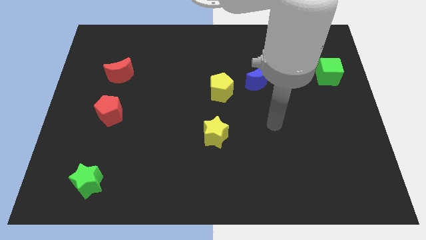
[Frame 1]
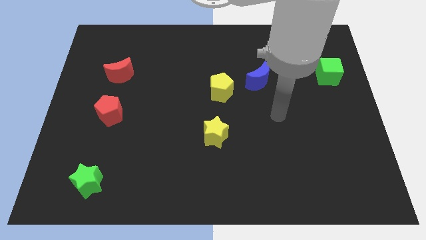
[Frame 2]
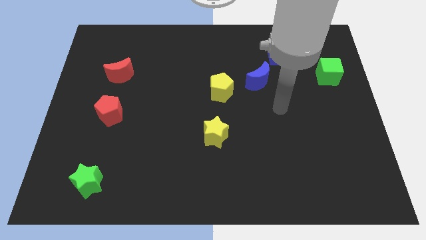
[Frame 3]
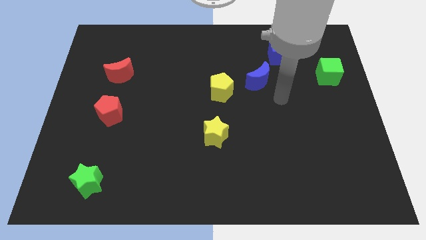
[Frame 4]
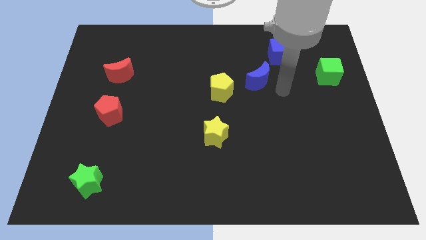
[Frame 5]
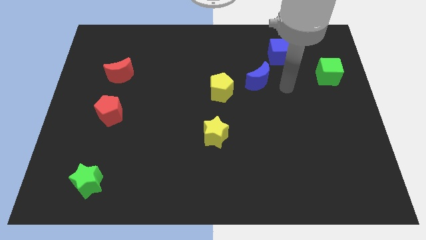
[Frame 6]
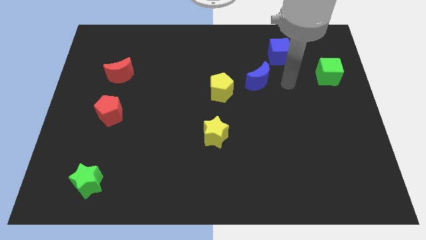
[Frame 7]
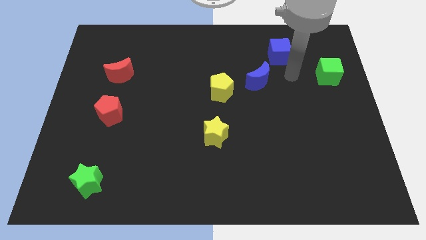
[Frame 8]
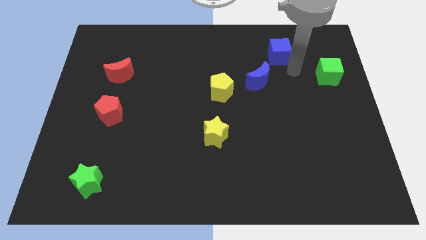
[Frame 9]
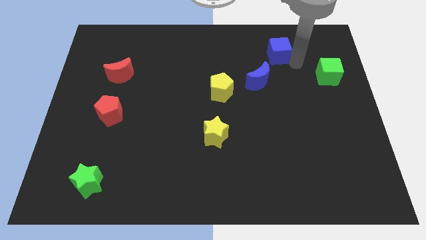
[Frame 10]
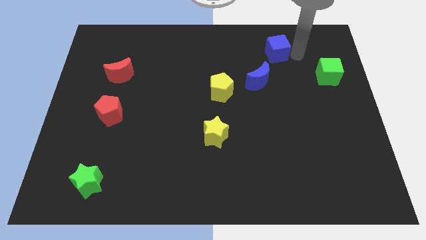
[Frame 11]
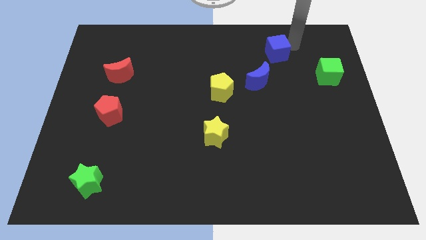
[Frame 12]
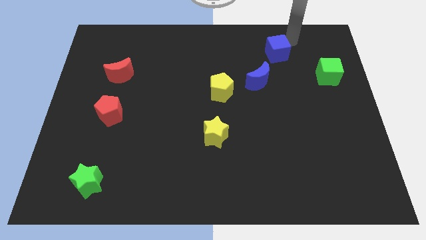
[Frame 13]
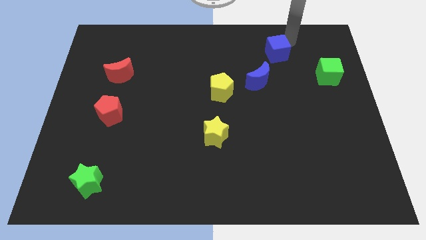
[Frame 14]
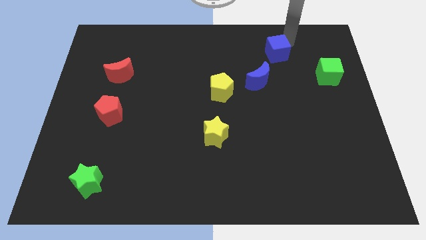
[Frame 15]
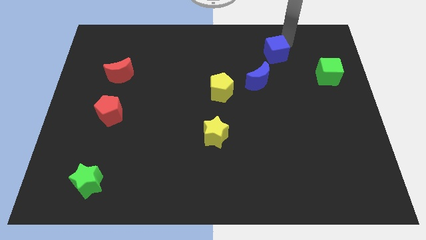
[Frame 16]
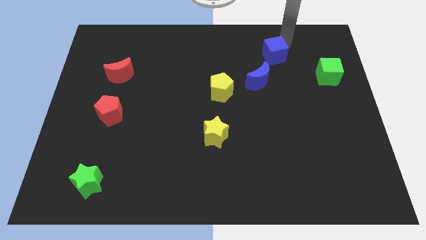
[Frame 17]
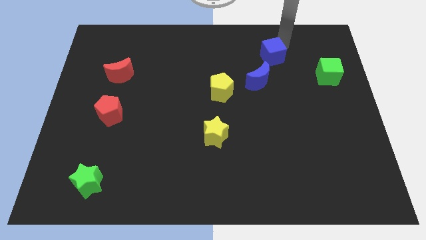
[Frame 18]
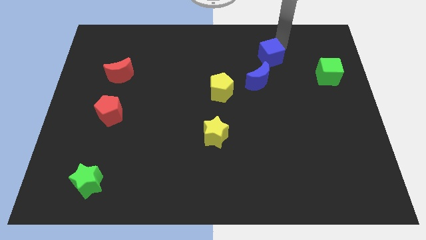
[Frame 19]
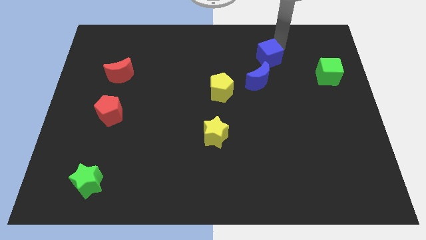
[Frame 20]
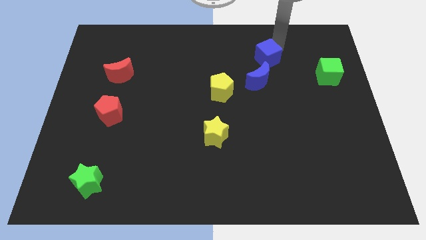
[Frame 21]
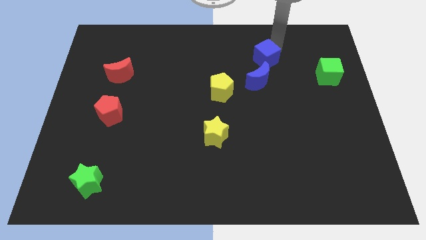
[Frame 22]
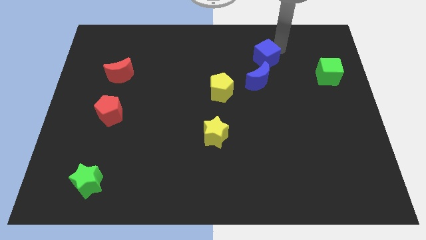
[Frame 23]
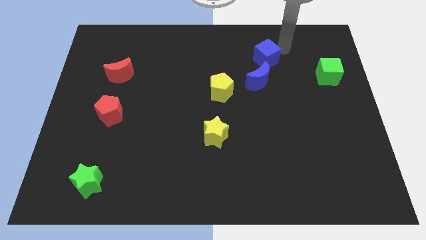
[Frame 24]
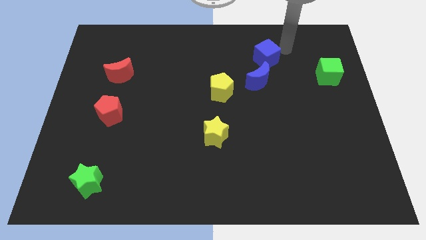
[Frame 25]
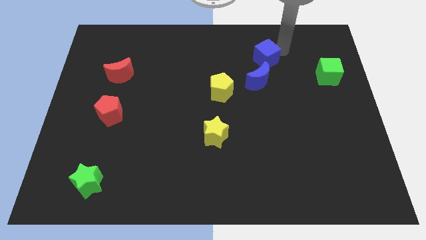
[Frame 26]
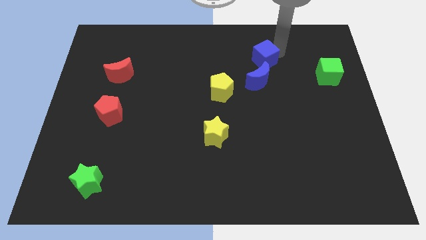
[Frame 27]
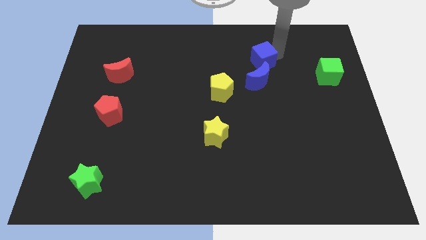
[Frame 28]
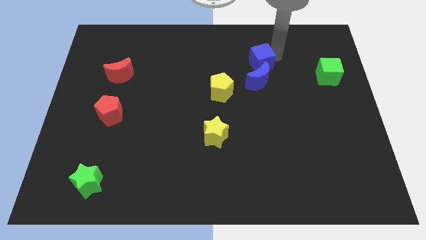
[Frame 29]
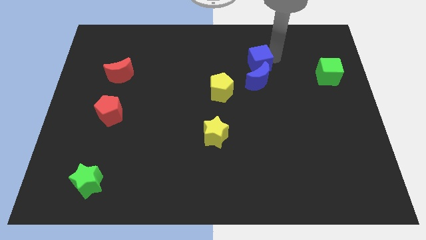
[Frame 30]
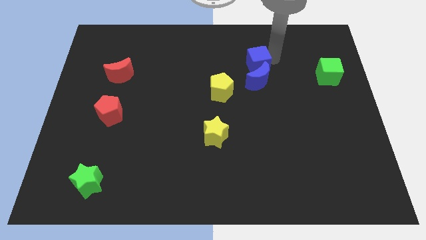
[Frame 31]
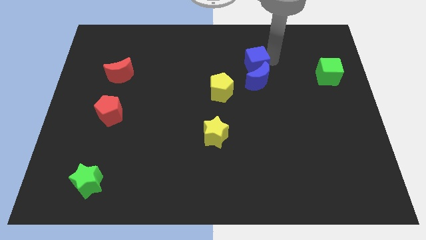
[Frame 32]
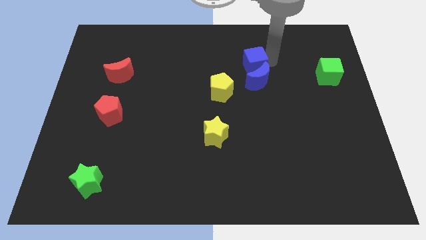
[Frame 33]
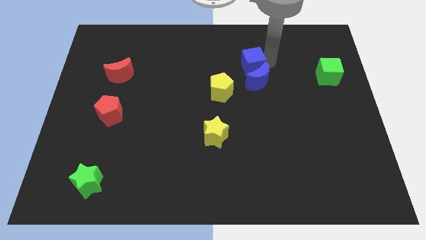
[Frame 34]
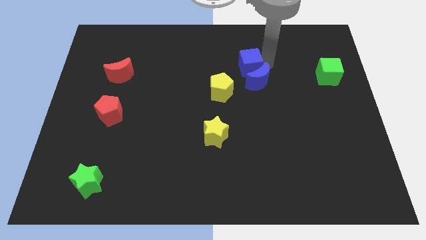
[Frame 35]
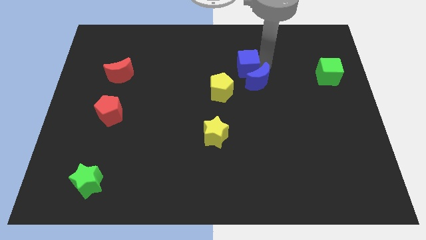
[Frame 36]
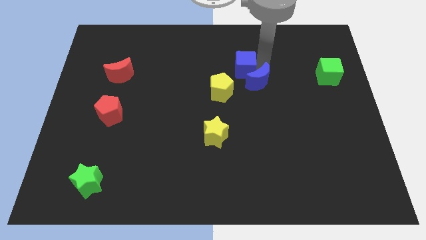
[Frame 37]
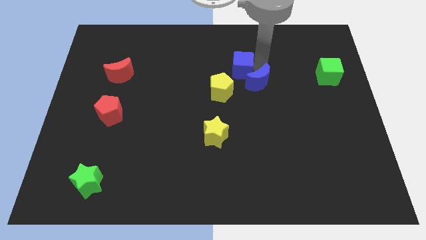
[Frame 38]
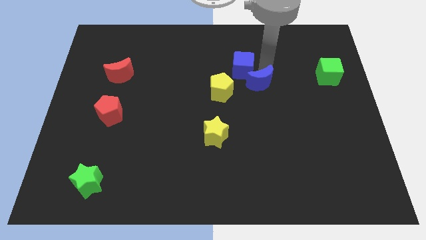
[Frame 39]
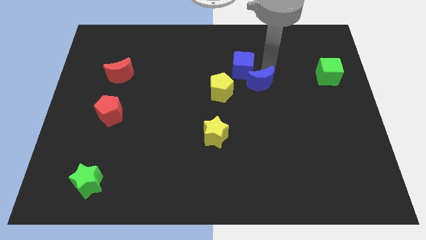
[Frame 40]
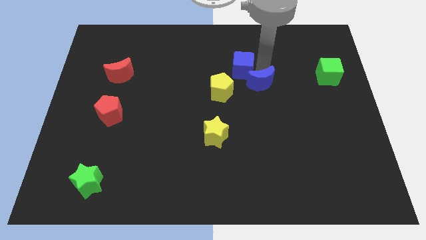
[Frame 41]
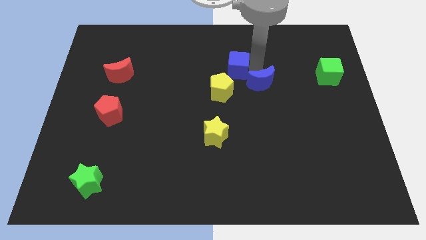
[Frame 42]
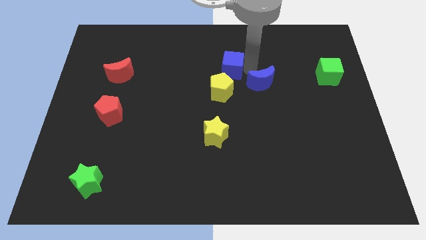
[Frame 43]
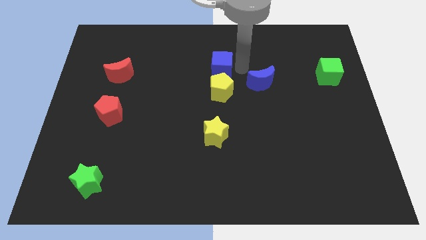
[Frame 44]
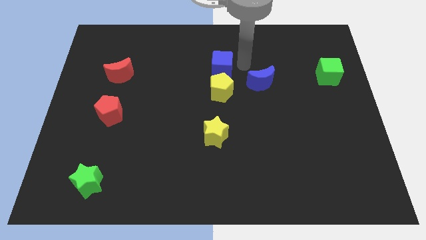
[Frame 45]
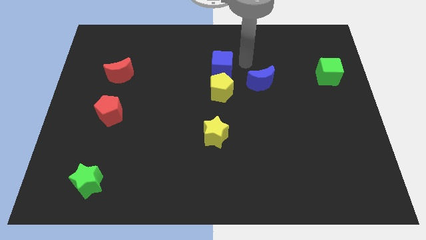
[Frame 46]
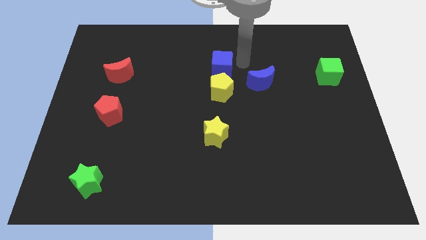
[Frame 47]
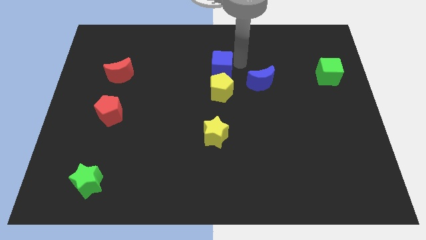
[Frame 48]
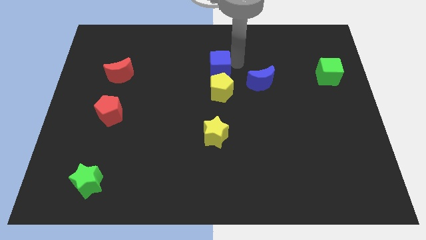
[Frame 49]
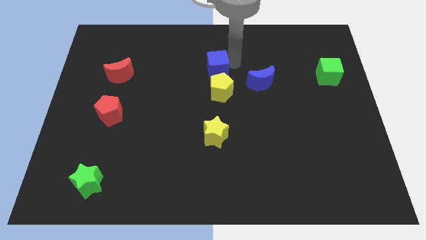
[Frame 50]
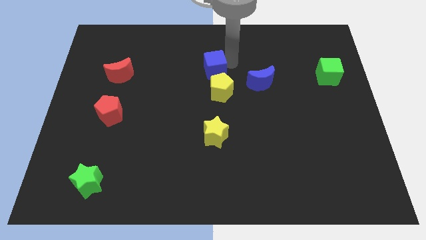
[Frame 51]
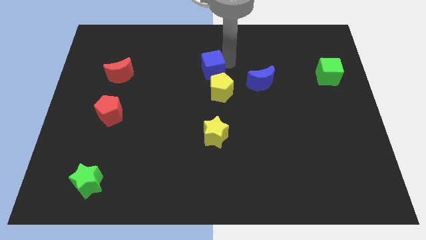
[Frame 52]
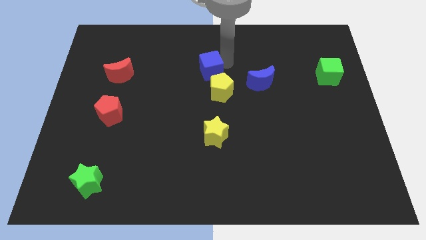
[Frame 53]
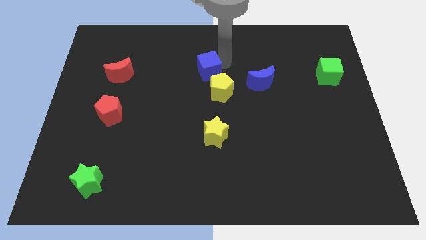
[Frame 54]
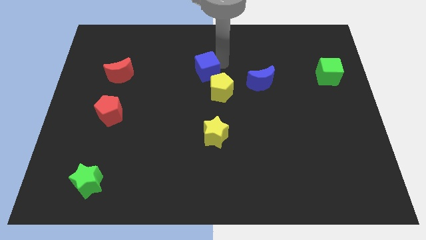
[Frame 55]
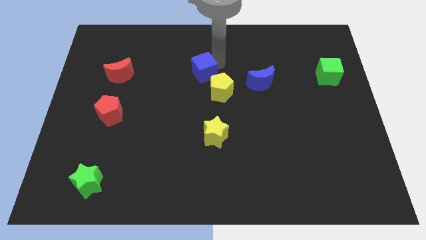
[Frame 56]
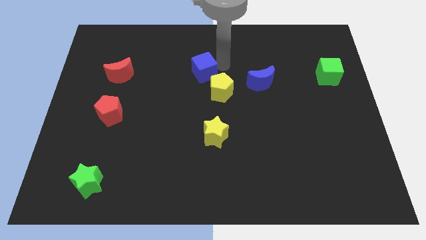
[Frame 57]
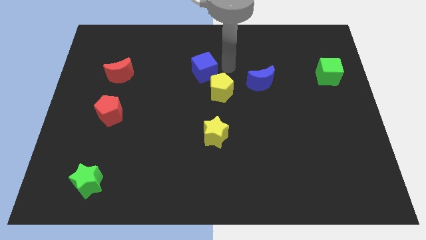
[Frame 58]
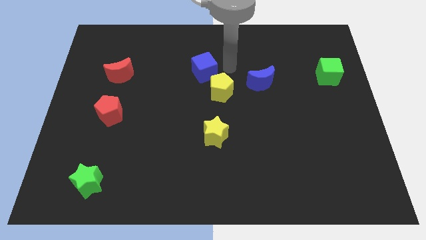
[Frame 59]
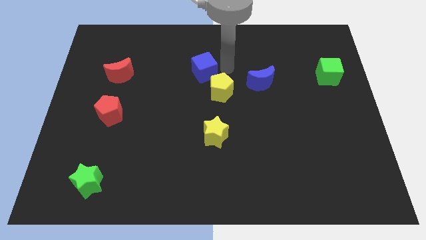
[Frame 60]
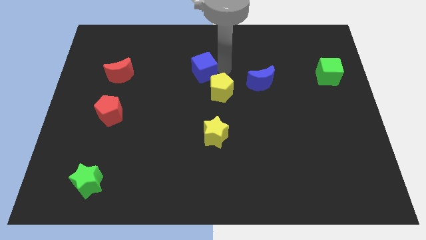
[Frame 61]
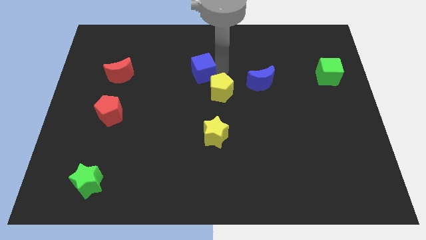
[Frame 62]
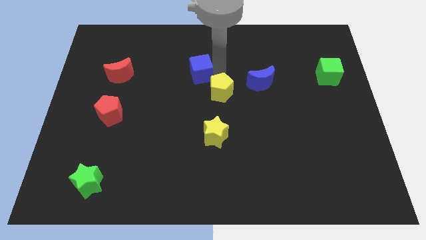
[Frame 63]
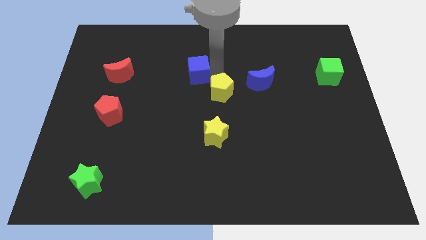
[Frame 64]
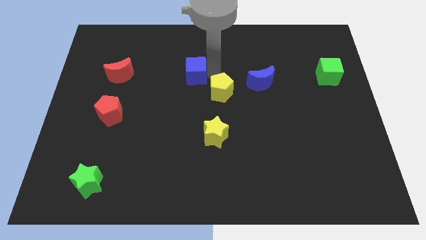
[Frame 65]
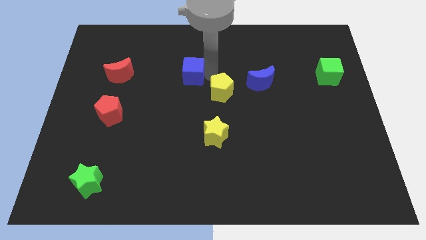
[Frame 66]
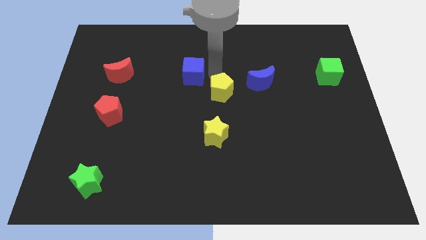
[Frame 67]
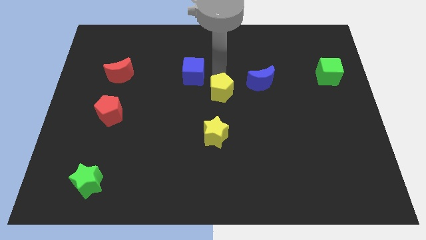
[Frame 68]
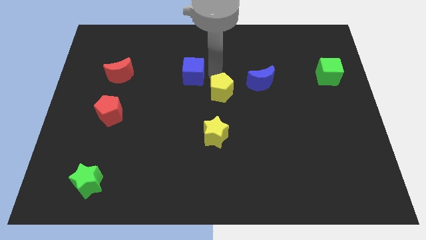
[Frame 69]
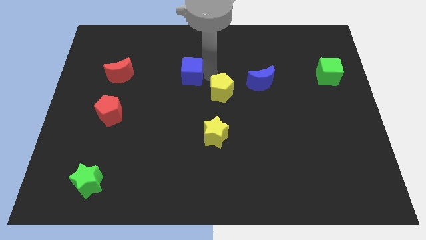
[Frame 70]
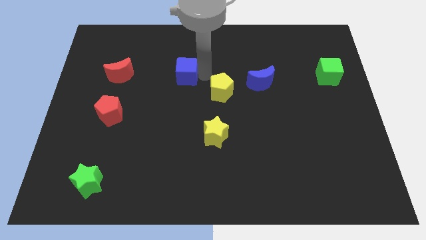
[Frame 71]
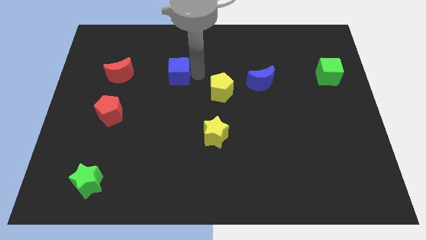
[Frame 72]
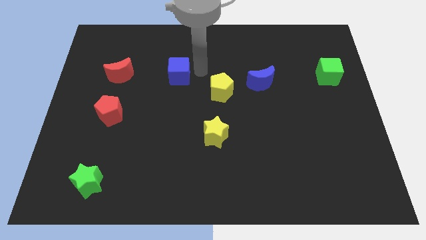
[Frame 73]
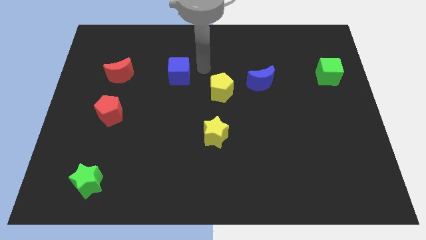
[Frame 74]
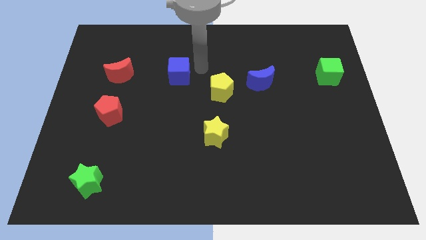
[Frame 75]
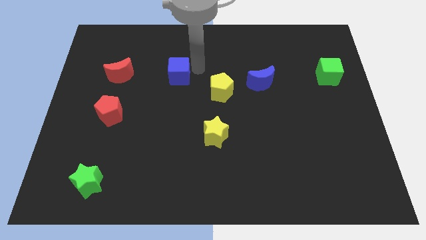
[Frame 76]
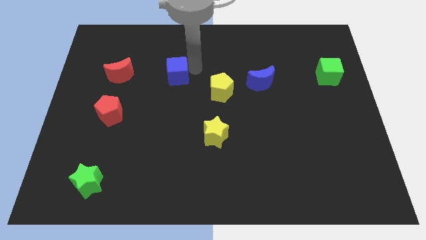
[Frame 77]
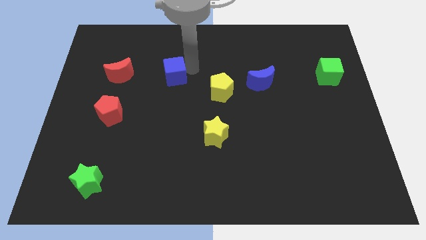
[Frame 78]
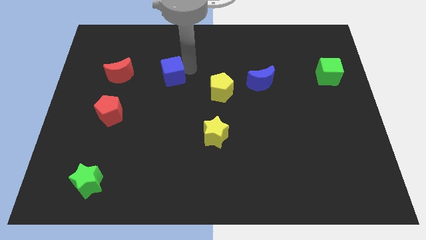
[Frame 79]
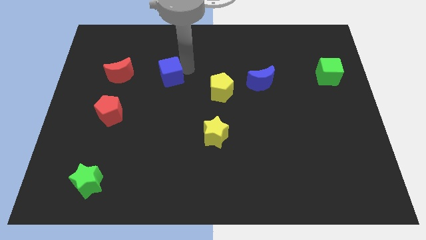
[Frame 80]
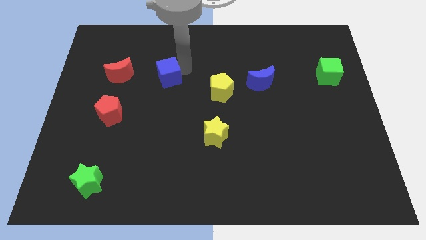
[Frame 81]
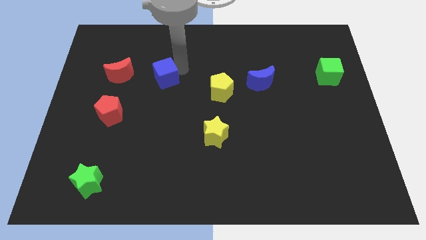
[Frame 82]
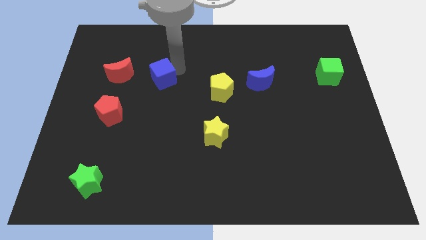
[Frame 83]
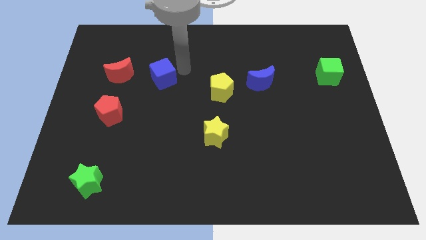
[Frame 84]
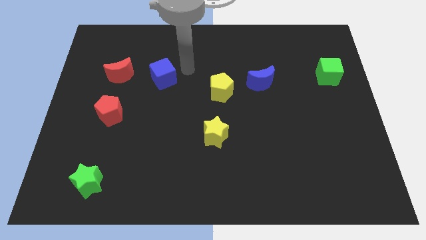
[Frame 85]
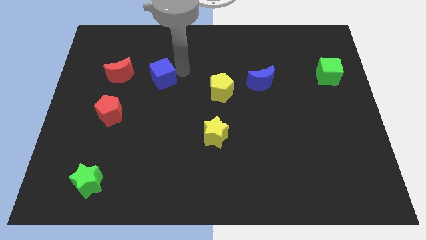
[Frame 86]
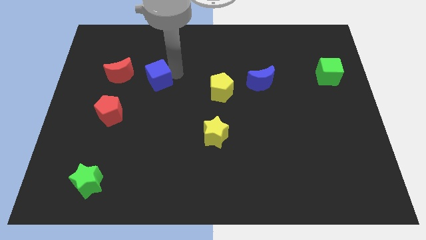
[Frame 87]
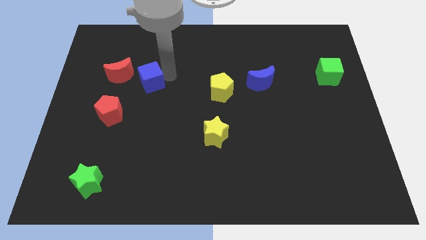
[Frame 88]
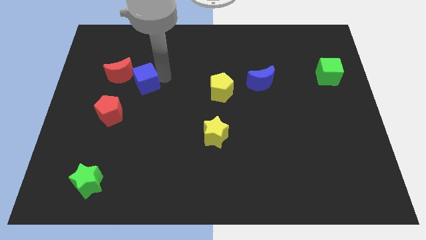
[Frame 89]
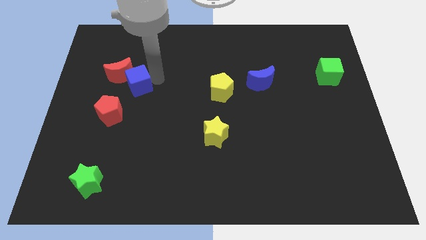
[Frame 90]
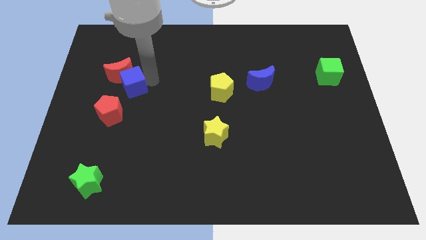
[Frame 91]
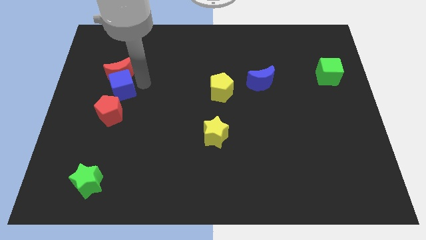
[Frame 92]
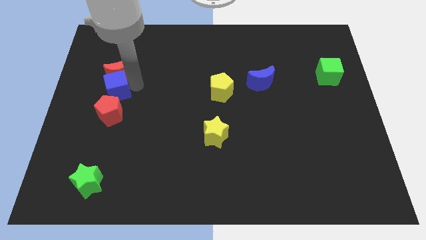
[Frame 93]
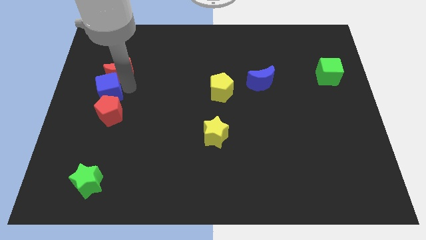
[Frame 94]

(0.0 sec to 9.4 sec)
put the blue cube to the left side
